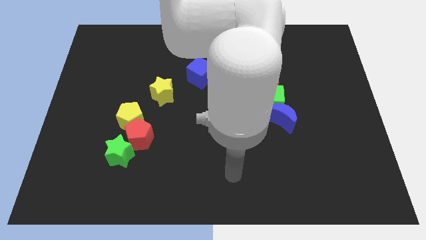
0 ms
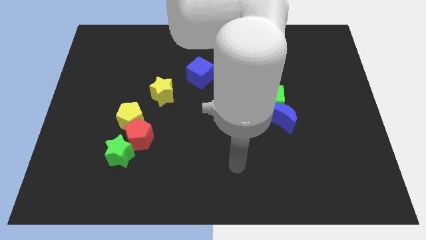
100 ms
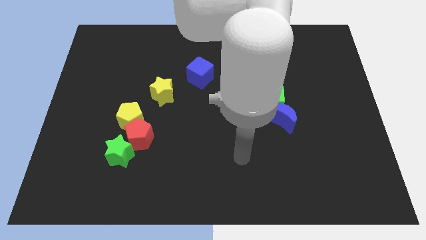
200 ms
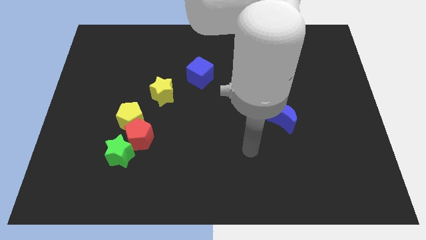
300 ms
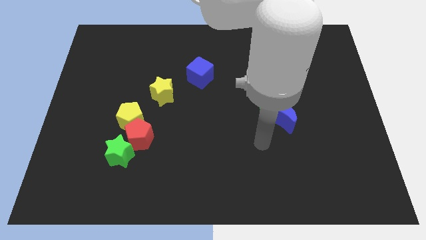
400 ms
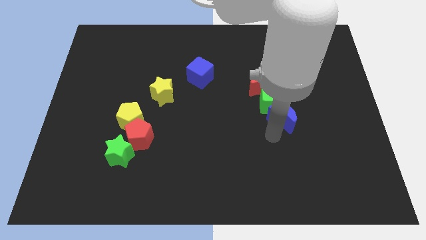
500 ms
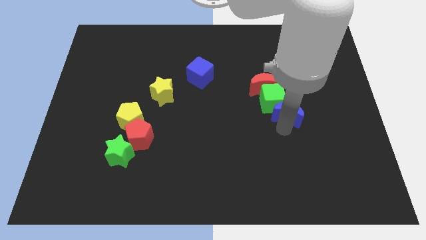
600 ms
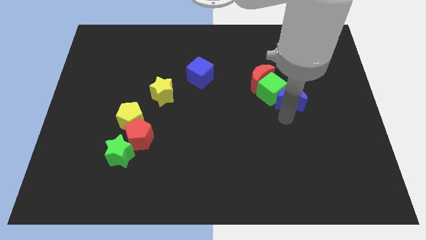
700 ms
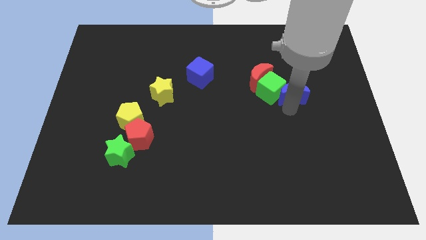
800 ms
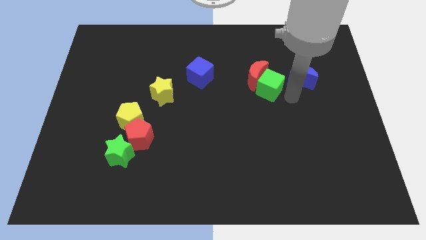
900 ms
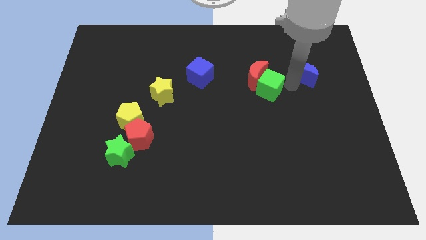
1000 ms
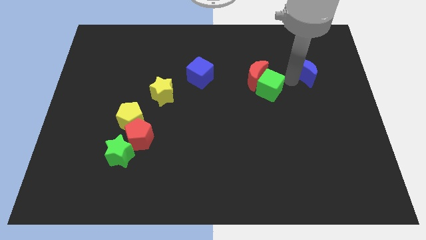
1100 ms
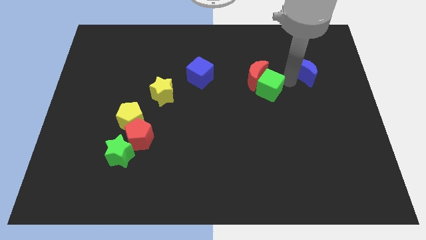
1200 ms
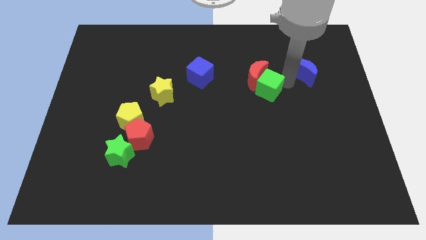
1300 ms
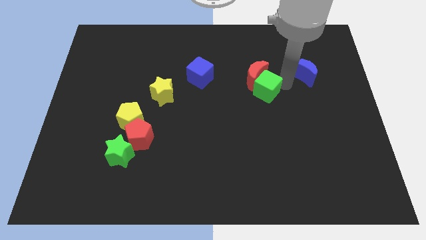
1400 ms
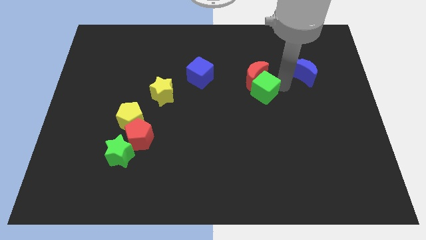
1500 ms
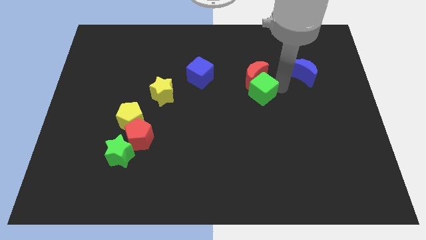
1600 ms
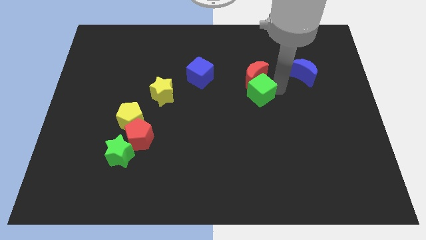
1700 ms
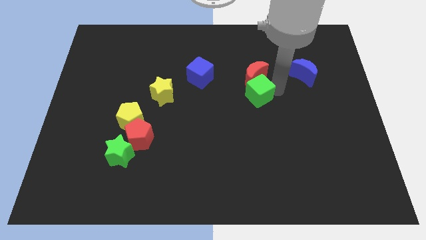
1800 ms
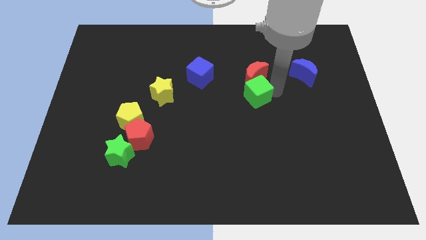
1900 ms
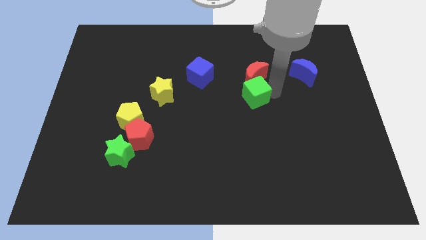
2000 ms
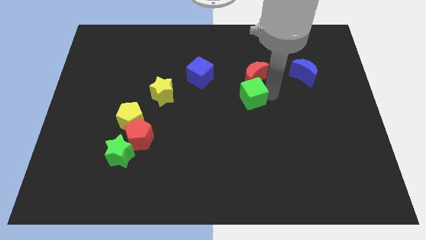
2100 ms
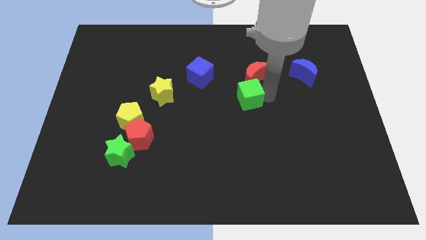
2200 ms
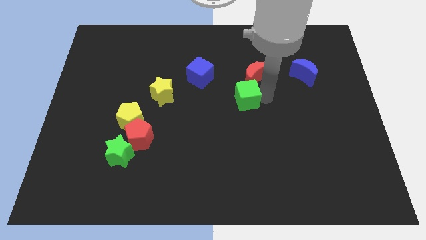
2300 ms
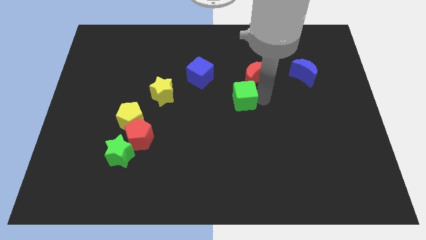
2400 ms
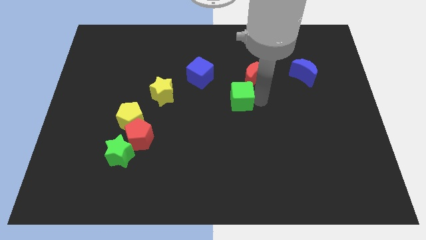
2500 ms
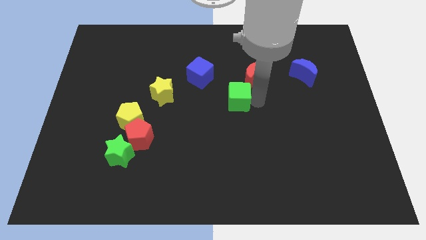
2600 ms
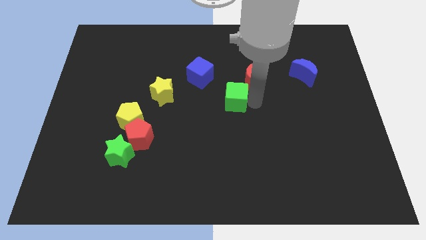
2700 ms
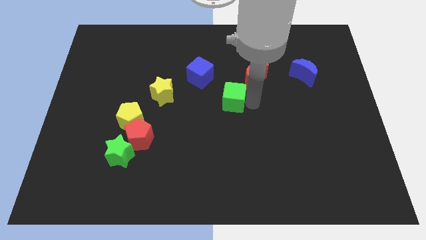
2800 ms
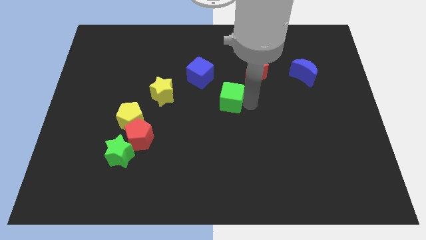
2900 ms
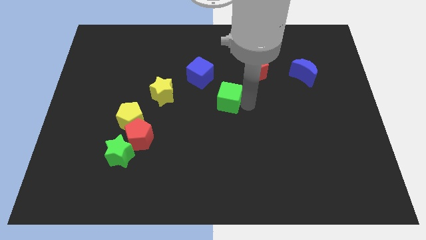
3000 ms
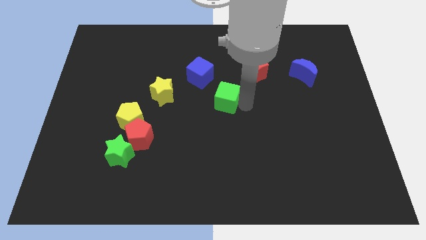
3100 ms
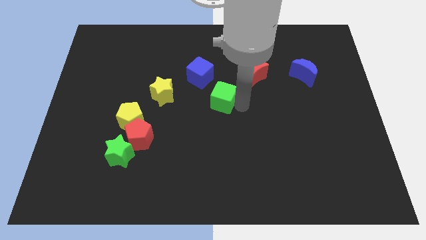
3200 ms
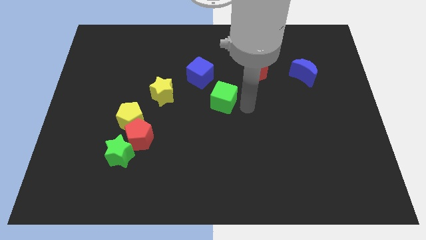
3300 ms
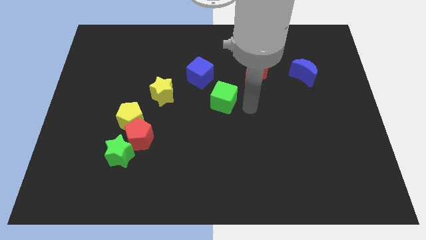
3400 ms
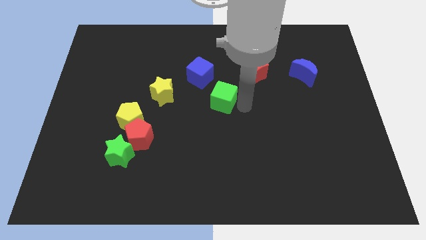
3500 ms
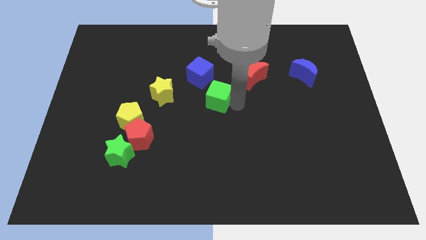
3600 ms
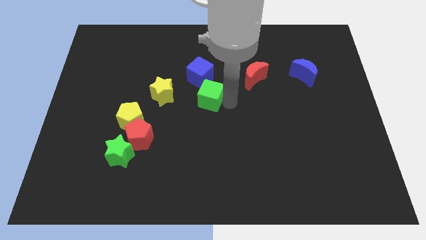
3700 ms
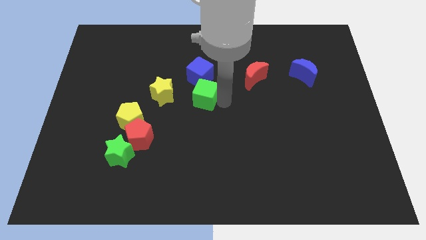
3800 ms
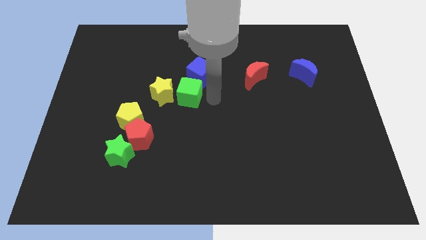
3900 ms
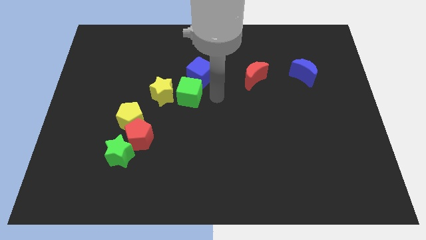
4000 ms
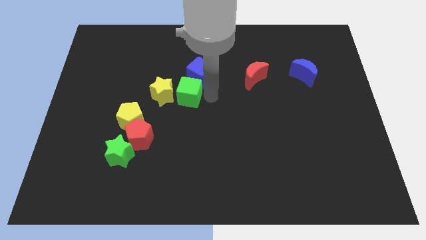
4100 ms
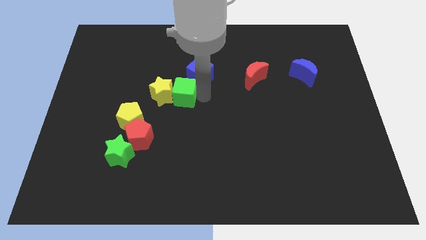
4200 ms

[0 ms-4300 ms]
slide the green cube towards the yellow star

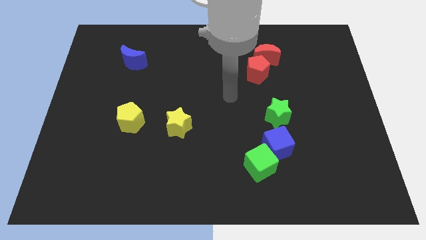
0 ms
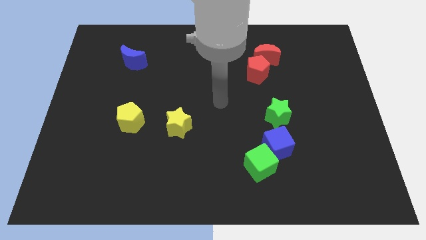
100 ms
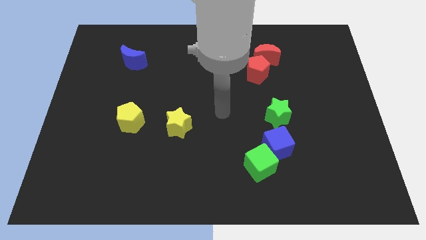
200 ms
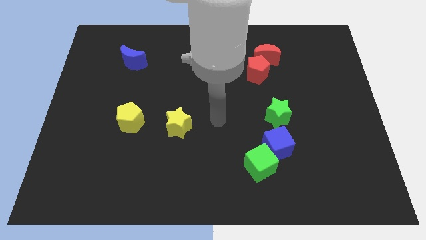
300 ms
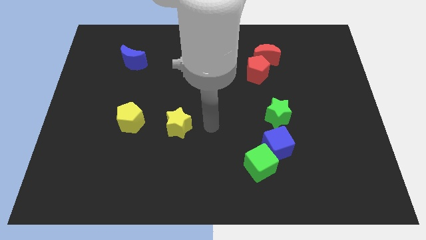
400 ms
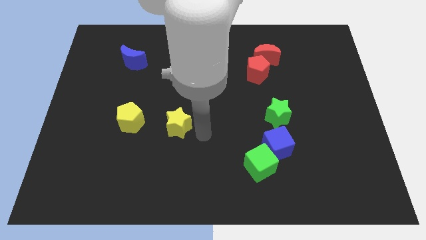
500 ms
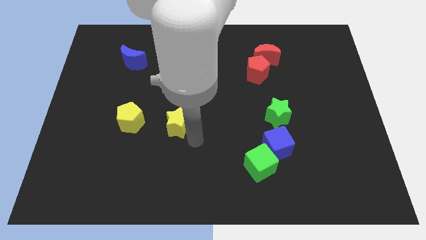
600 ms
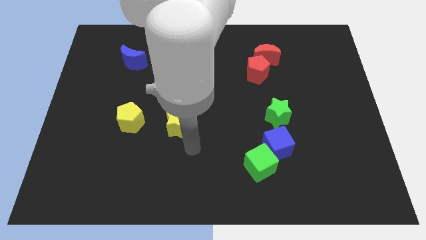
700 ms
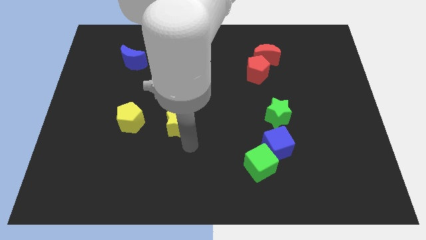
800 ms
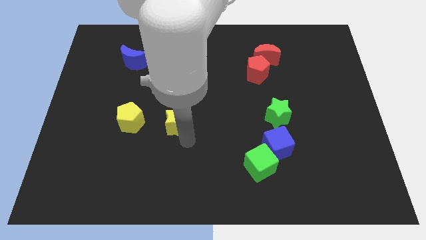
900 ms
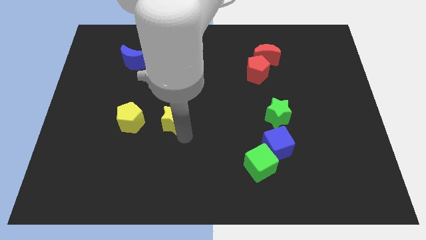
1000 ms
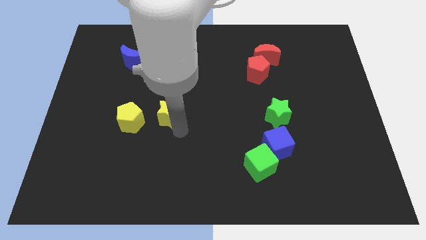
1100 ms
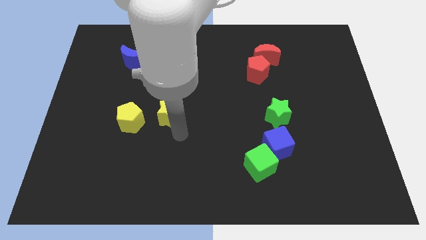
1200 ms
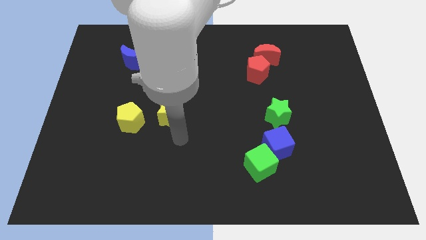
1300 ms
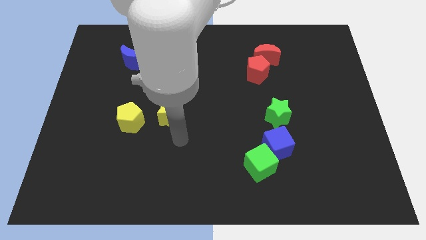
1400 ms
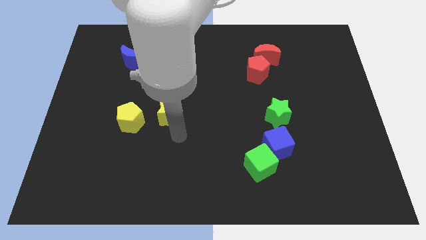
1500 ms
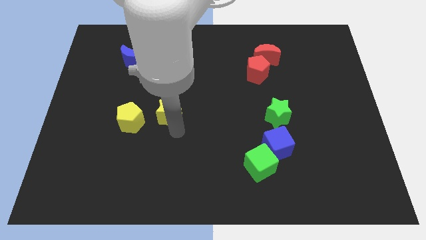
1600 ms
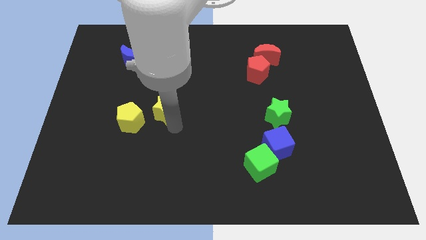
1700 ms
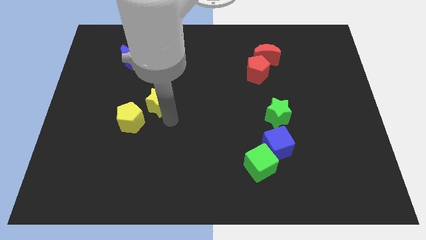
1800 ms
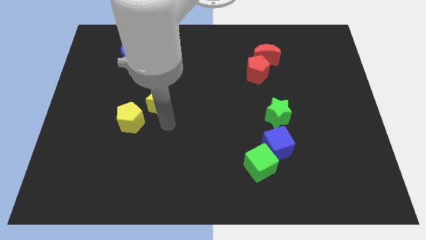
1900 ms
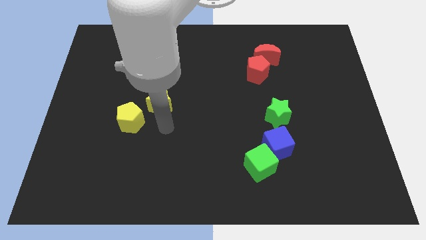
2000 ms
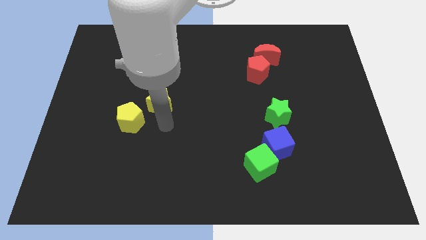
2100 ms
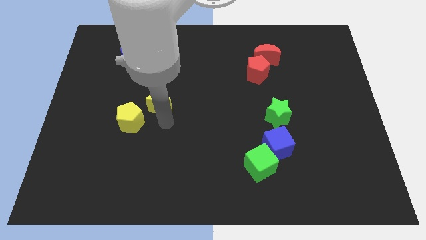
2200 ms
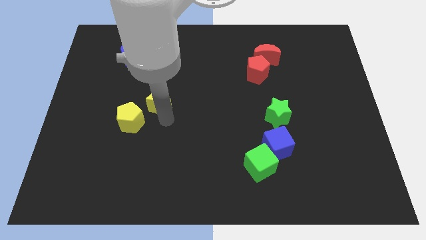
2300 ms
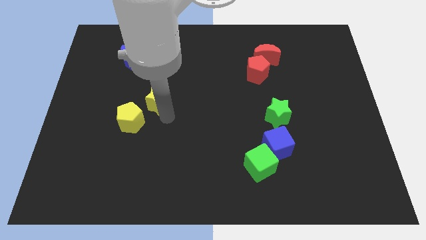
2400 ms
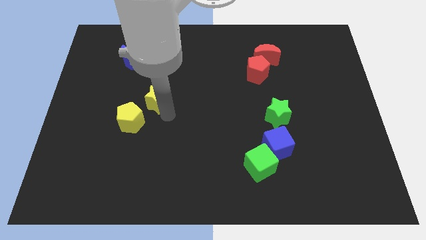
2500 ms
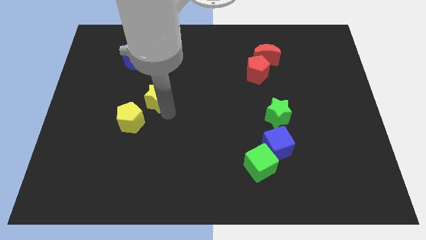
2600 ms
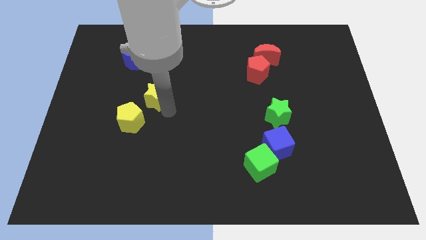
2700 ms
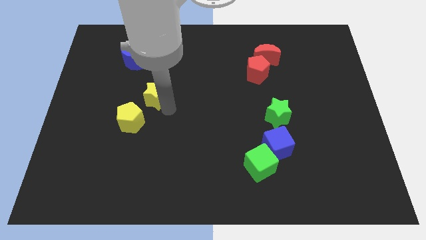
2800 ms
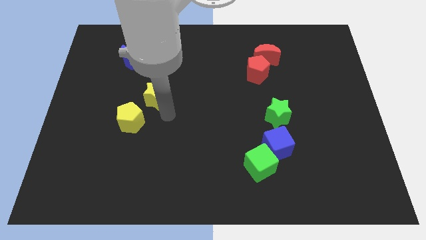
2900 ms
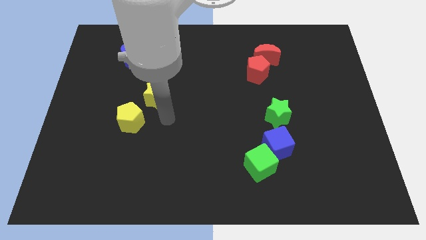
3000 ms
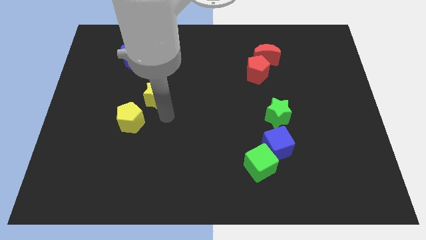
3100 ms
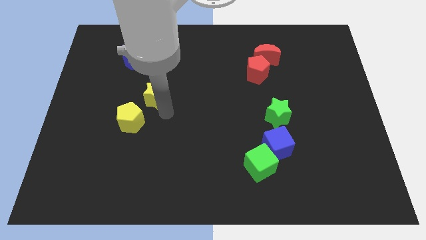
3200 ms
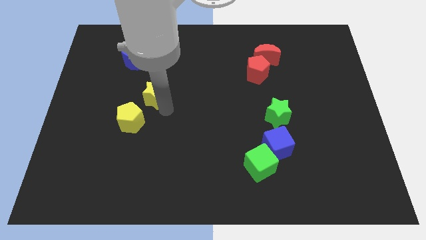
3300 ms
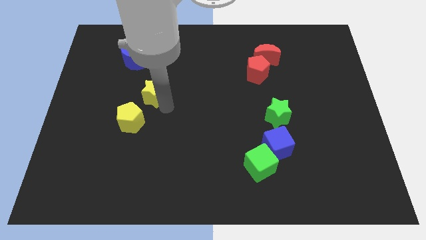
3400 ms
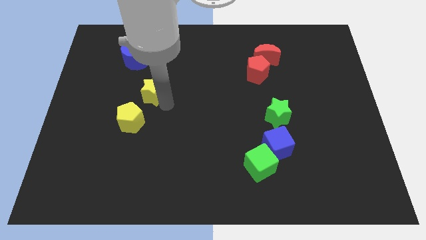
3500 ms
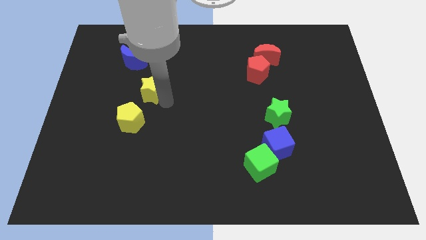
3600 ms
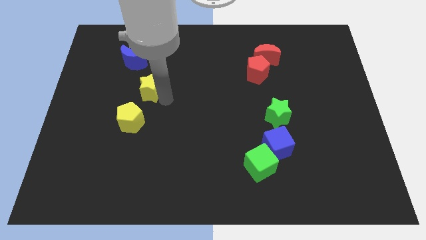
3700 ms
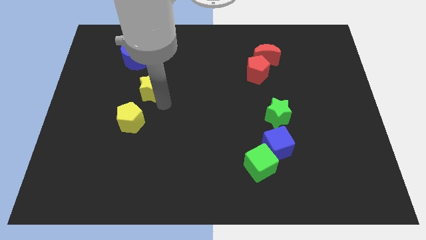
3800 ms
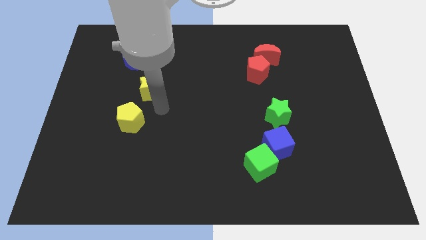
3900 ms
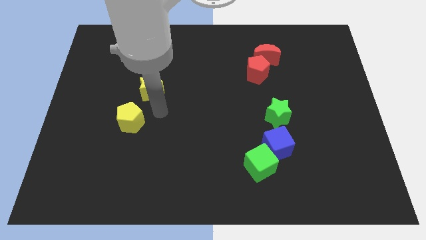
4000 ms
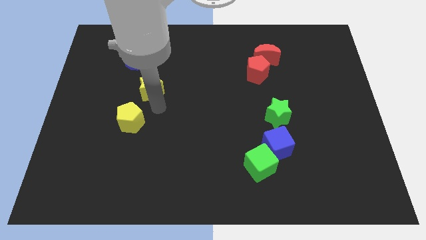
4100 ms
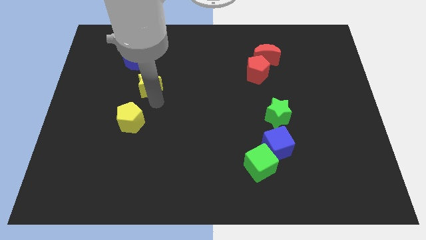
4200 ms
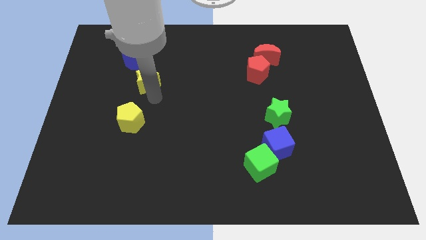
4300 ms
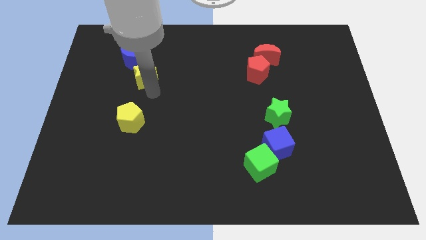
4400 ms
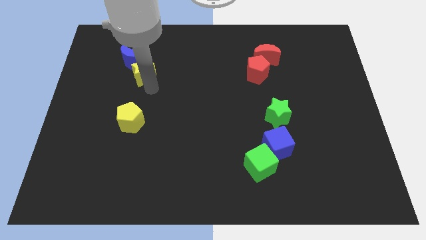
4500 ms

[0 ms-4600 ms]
move the yellow star close to the blue moon
